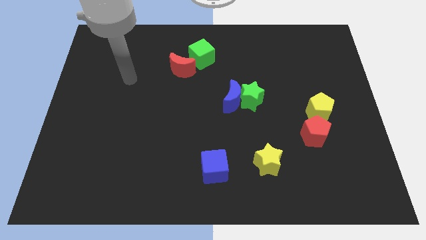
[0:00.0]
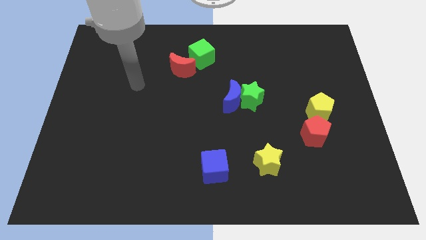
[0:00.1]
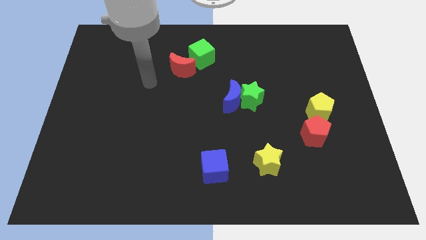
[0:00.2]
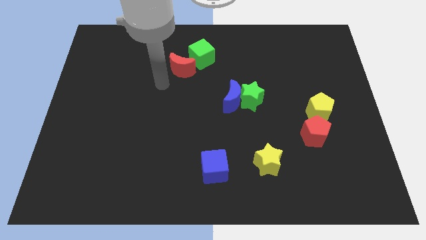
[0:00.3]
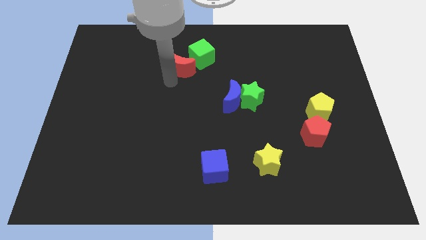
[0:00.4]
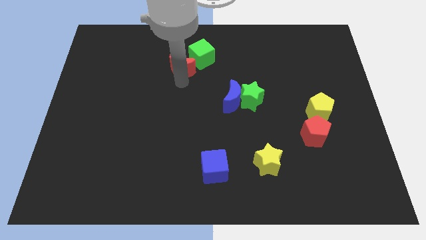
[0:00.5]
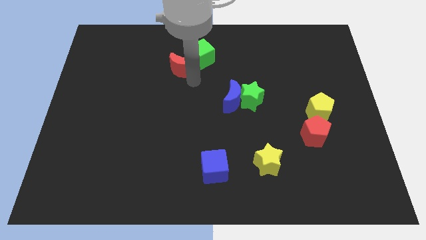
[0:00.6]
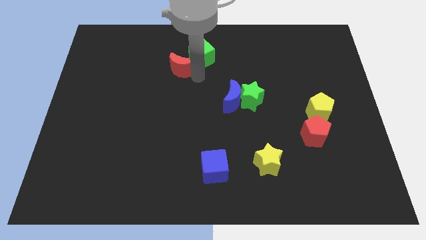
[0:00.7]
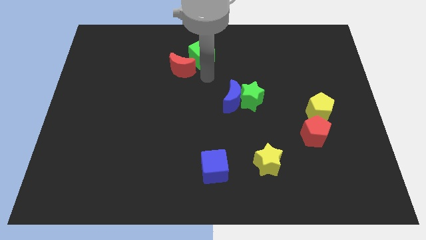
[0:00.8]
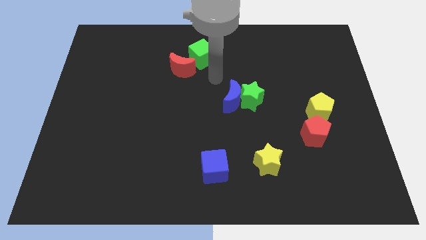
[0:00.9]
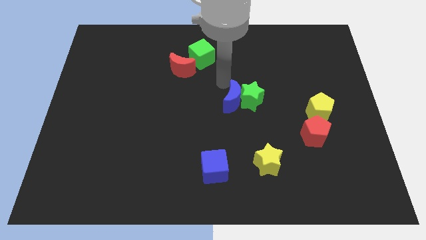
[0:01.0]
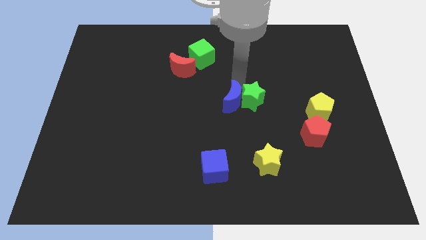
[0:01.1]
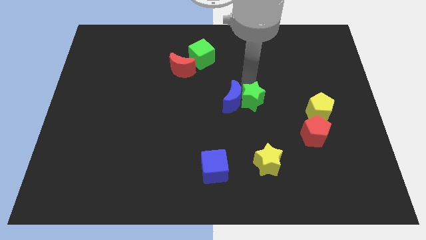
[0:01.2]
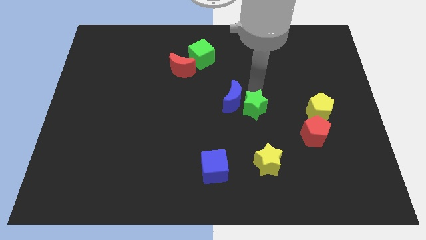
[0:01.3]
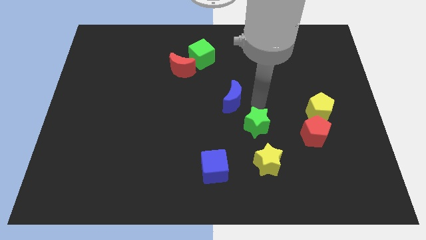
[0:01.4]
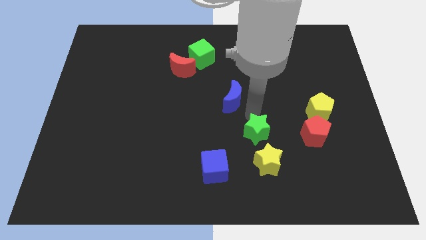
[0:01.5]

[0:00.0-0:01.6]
move the blue moon away from the green star

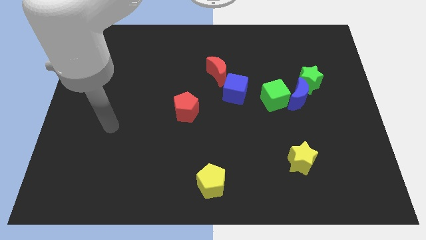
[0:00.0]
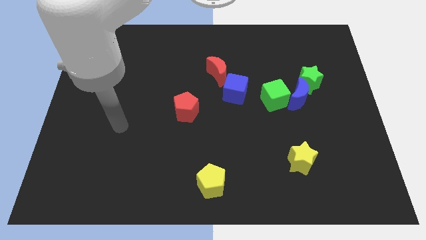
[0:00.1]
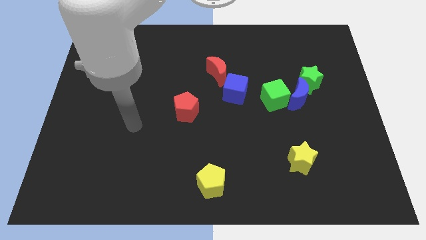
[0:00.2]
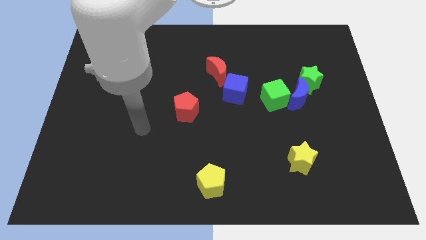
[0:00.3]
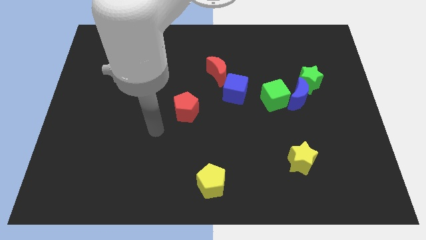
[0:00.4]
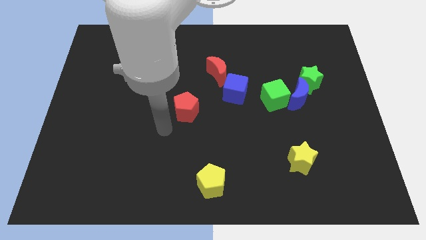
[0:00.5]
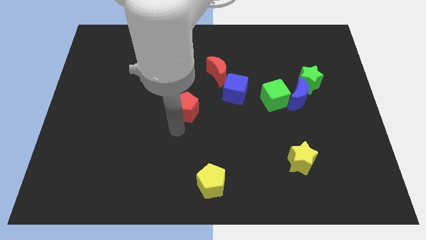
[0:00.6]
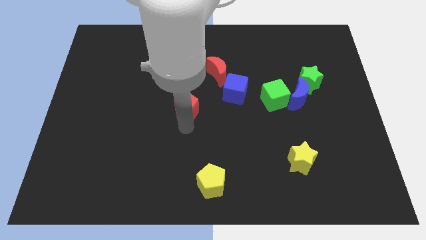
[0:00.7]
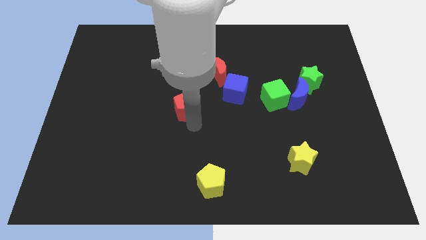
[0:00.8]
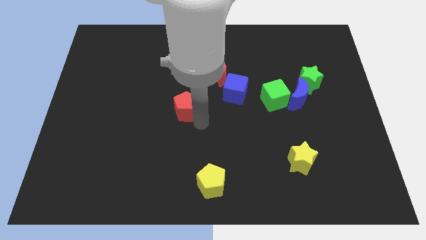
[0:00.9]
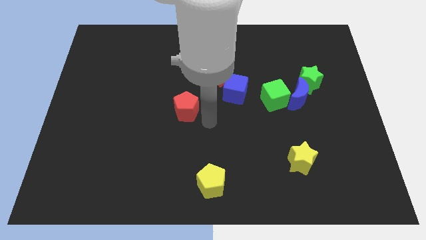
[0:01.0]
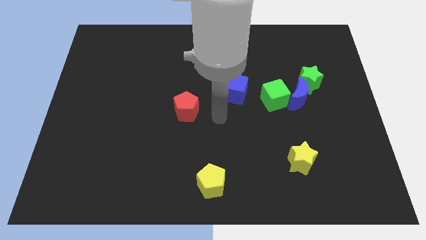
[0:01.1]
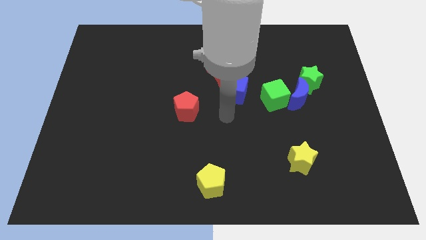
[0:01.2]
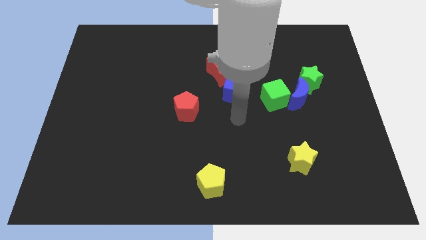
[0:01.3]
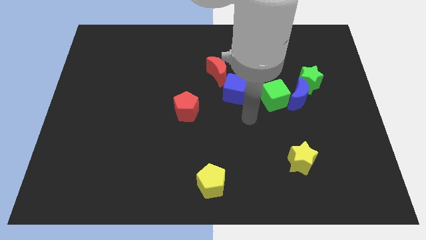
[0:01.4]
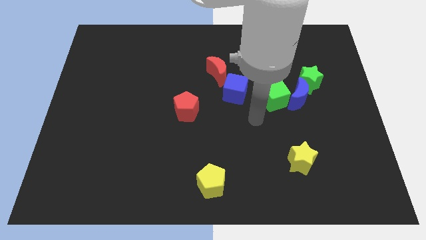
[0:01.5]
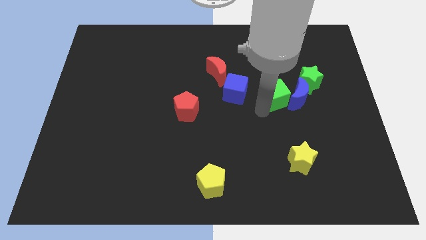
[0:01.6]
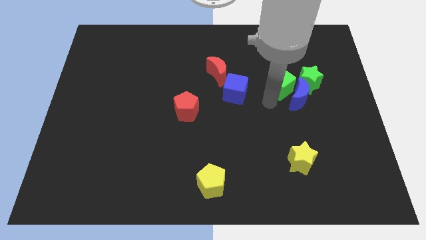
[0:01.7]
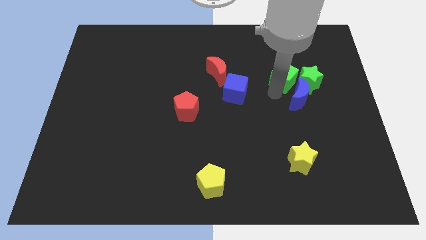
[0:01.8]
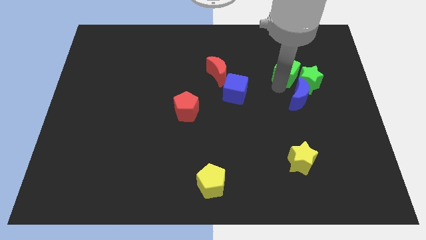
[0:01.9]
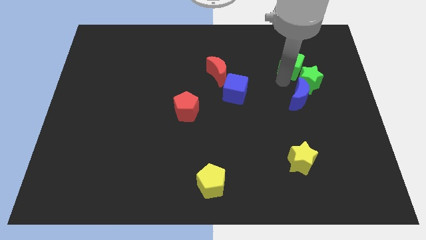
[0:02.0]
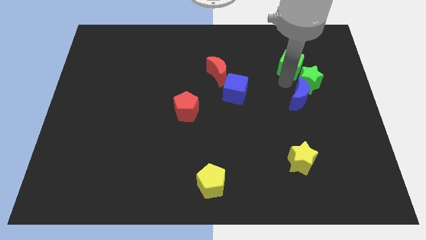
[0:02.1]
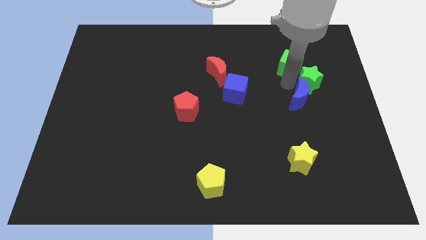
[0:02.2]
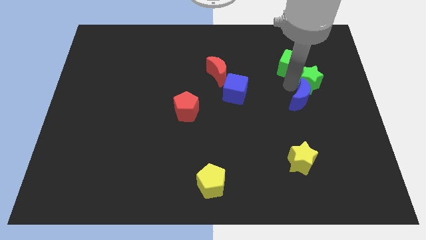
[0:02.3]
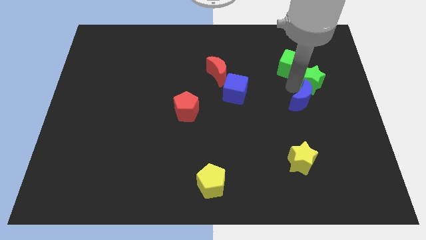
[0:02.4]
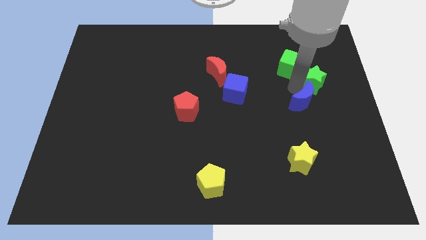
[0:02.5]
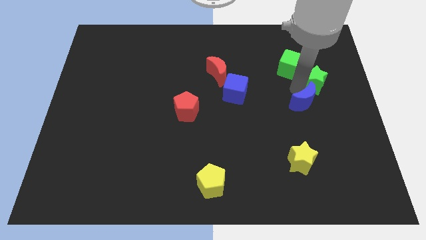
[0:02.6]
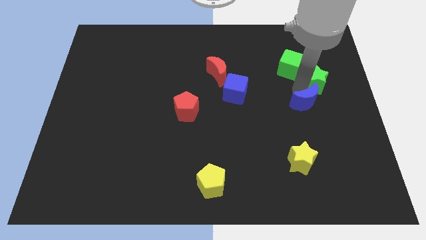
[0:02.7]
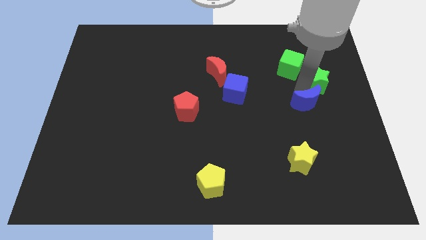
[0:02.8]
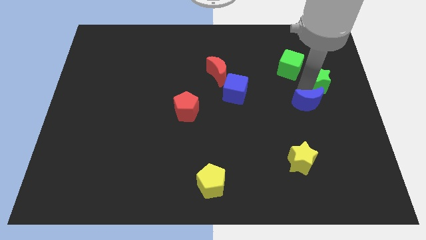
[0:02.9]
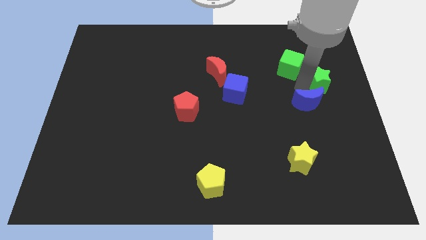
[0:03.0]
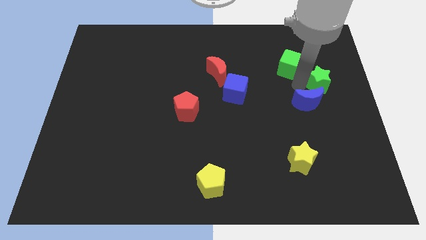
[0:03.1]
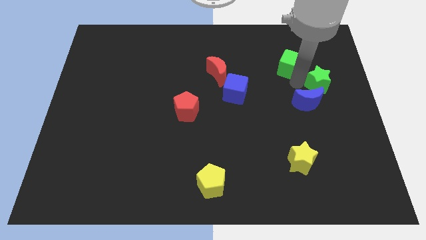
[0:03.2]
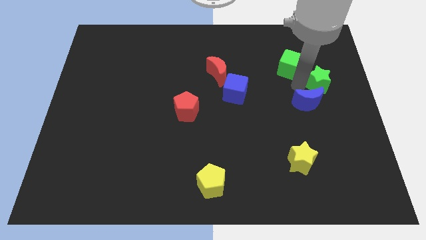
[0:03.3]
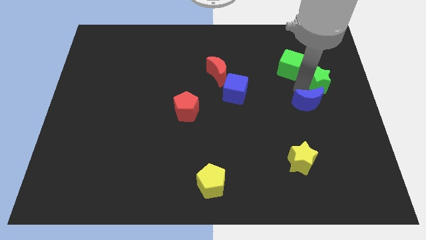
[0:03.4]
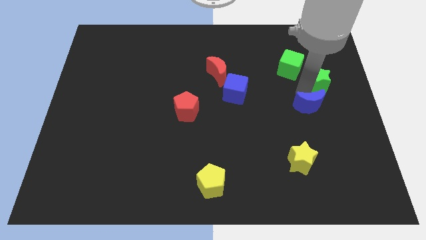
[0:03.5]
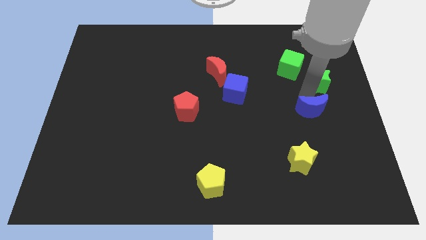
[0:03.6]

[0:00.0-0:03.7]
separate the blue moon from the green cube and green star

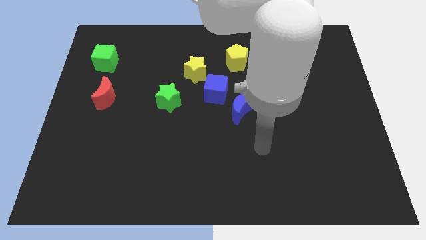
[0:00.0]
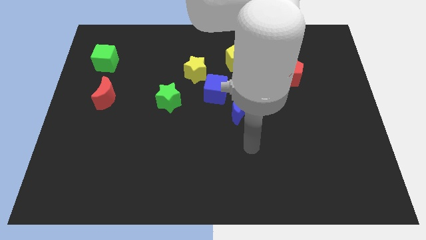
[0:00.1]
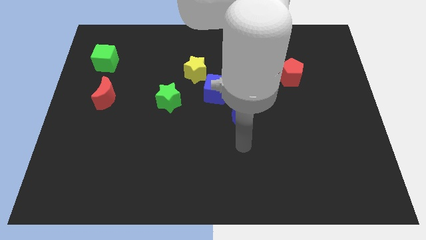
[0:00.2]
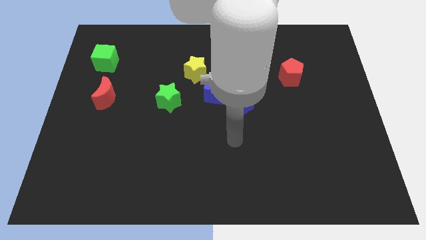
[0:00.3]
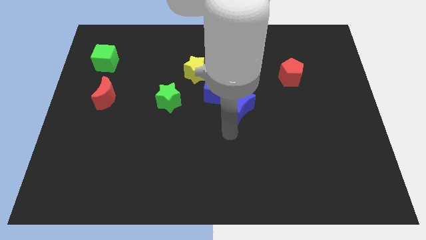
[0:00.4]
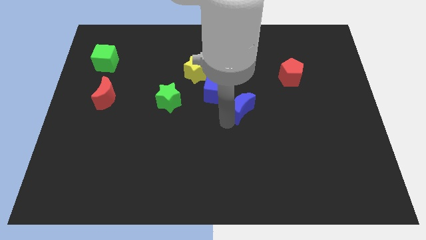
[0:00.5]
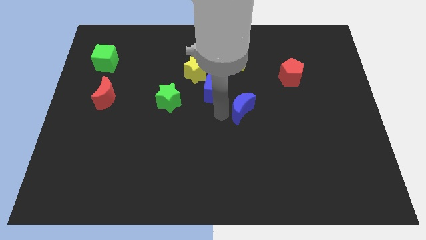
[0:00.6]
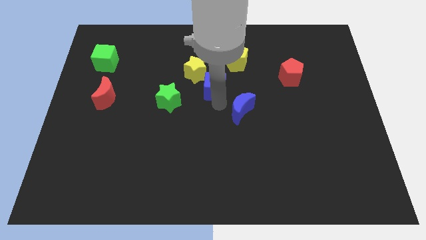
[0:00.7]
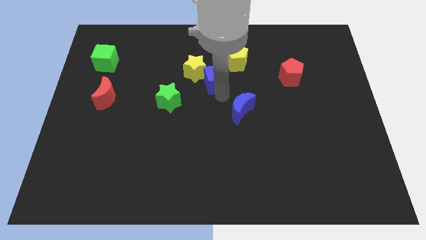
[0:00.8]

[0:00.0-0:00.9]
move the blue moon away from the blue cube

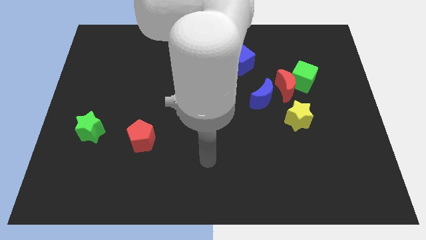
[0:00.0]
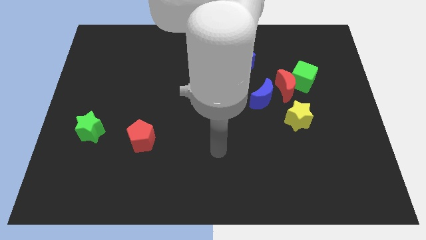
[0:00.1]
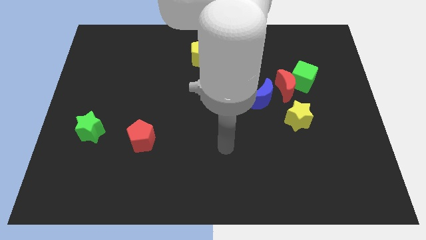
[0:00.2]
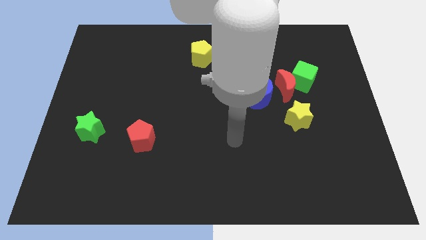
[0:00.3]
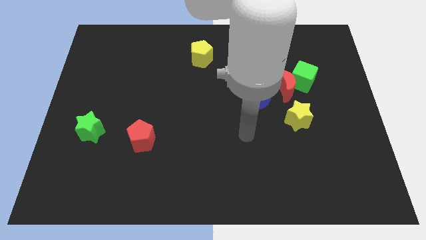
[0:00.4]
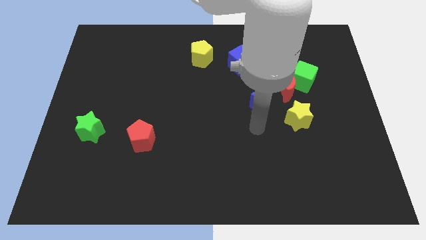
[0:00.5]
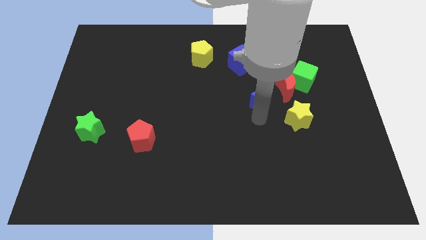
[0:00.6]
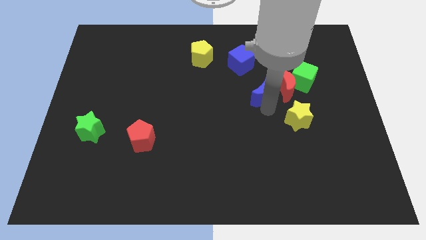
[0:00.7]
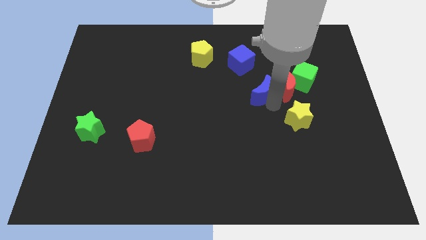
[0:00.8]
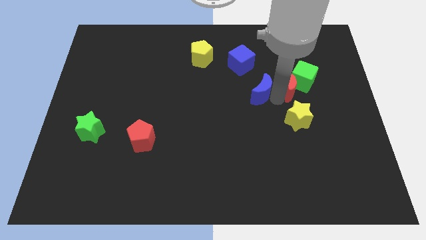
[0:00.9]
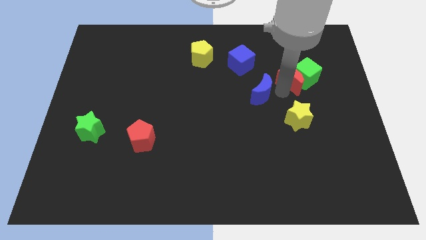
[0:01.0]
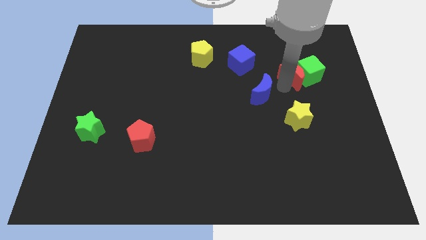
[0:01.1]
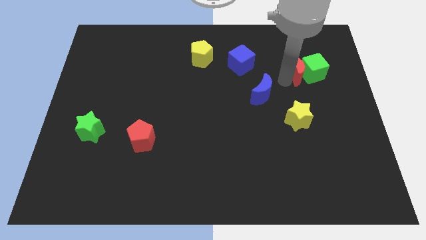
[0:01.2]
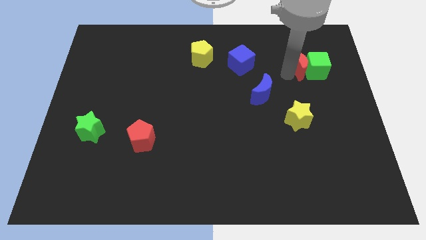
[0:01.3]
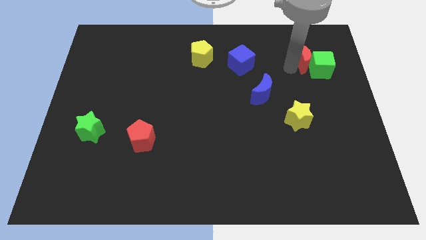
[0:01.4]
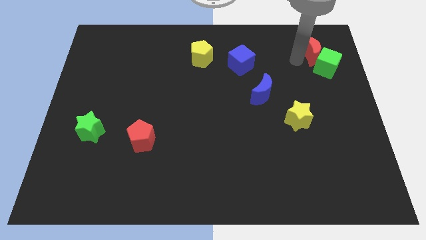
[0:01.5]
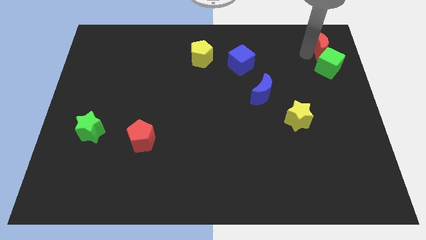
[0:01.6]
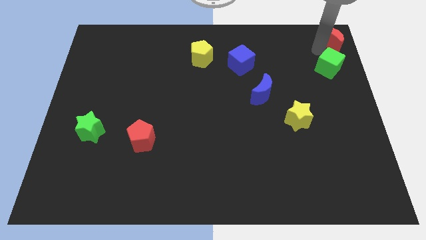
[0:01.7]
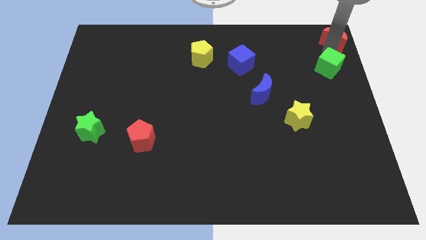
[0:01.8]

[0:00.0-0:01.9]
move the green cube away from the red moon

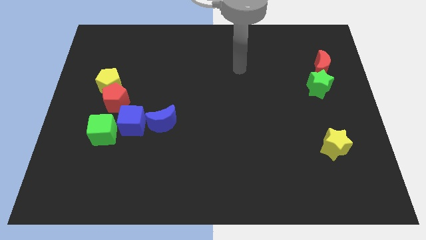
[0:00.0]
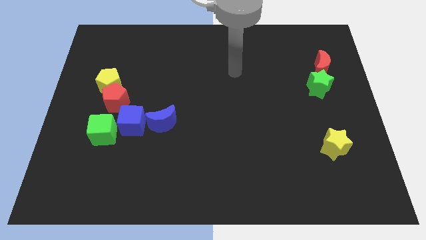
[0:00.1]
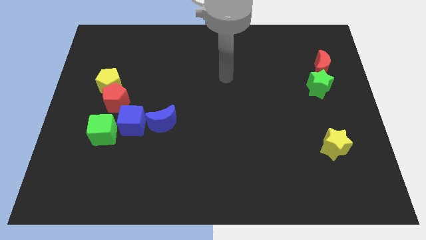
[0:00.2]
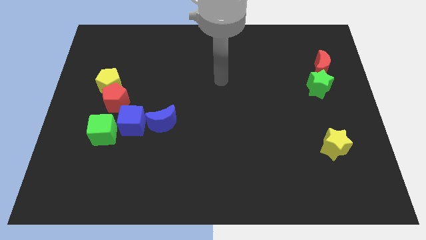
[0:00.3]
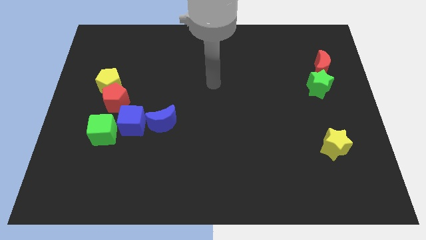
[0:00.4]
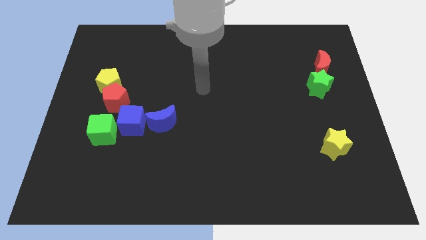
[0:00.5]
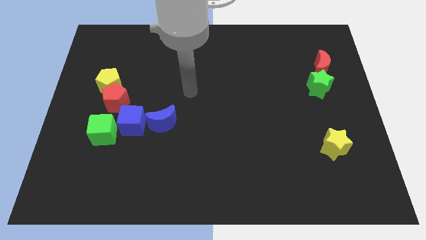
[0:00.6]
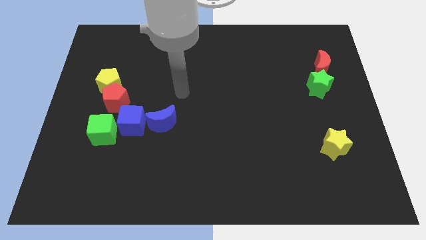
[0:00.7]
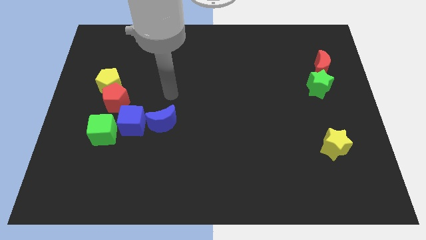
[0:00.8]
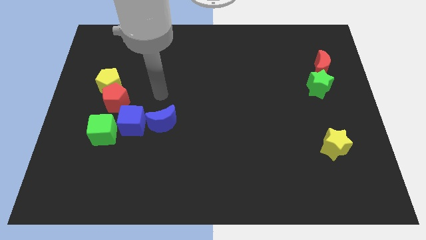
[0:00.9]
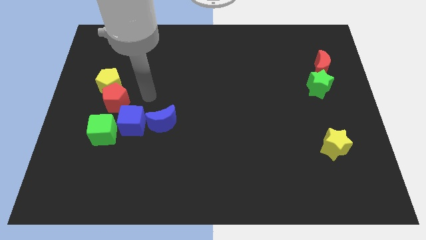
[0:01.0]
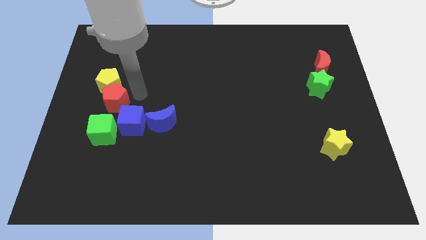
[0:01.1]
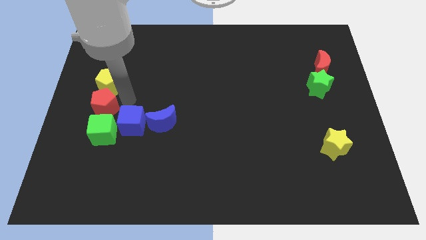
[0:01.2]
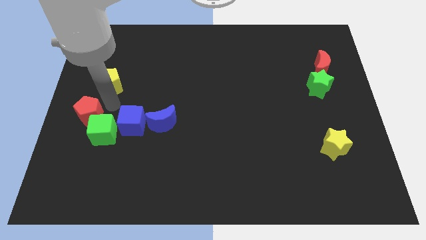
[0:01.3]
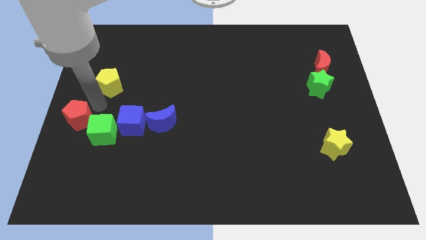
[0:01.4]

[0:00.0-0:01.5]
separate the yellow pentagon from the red pentagon
